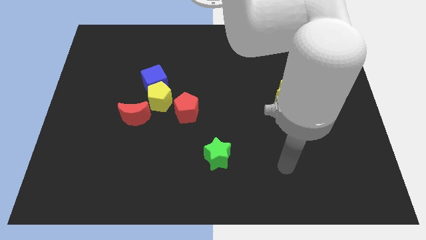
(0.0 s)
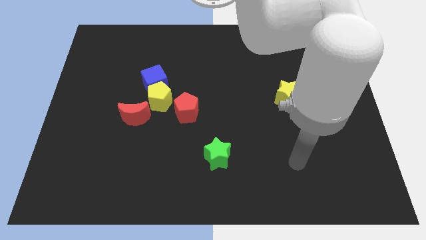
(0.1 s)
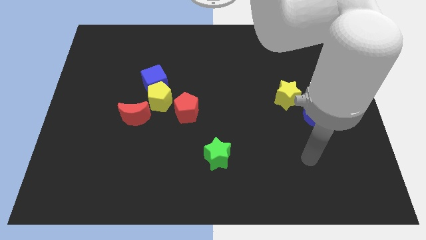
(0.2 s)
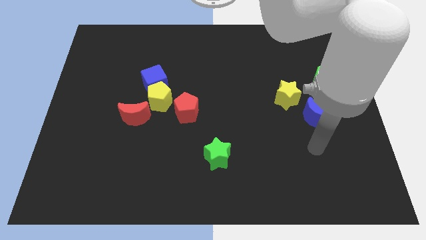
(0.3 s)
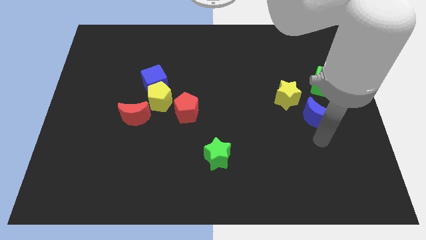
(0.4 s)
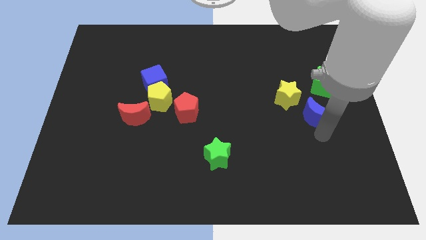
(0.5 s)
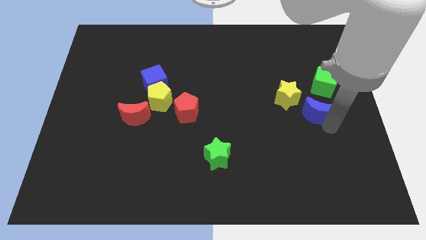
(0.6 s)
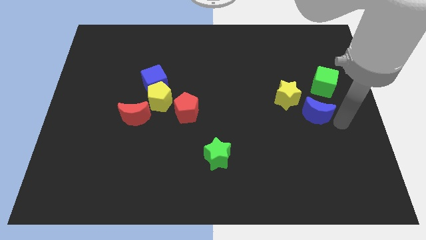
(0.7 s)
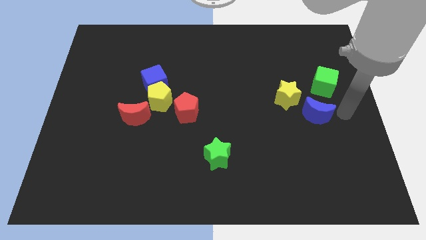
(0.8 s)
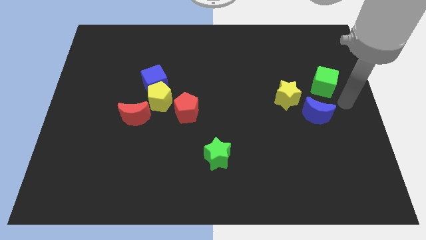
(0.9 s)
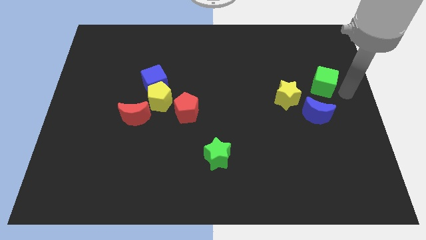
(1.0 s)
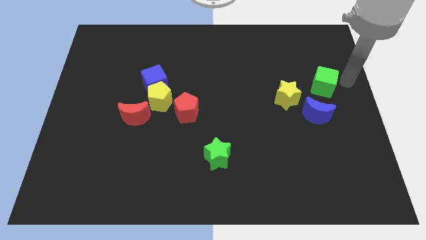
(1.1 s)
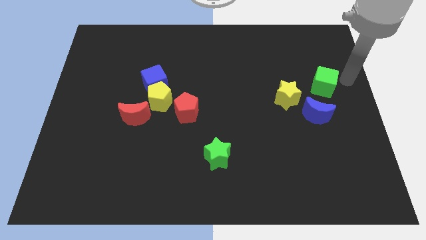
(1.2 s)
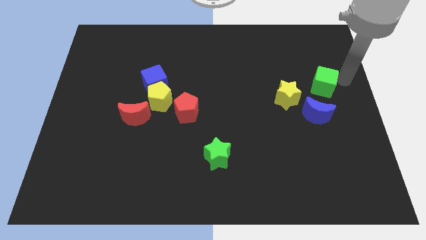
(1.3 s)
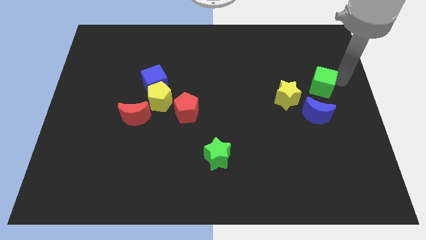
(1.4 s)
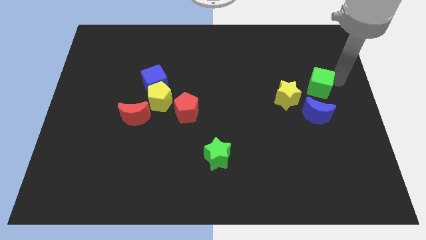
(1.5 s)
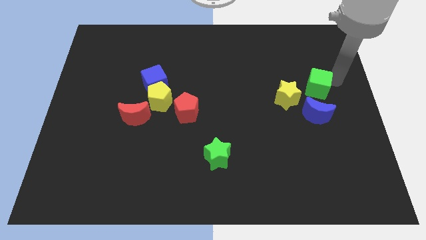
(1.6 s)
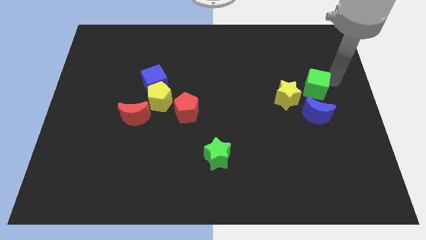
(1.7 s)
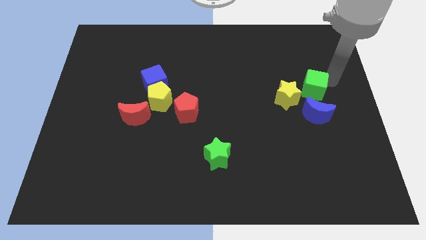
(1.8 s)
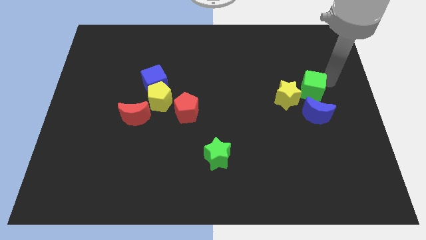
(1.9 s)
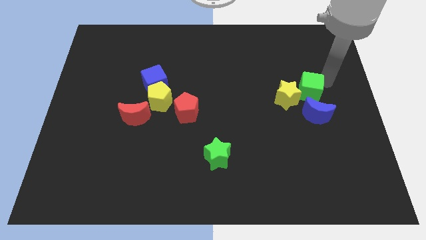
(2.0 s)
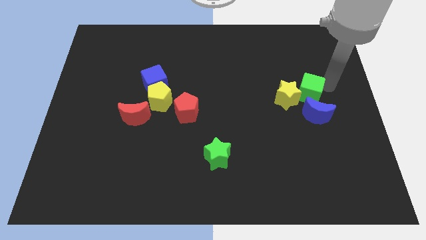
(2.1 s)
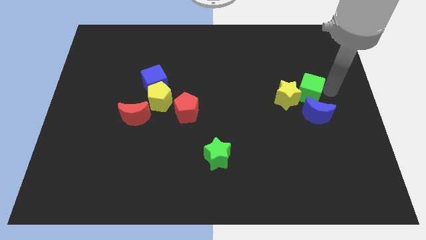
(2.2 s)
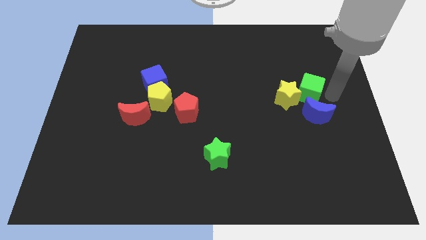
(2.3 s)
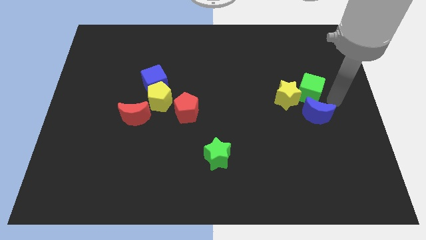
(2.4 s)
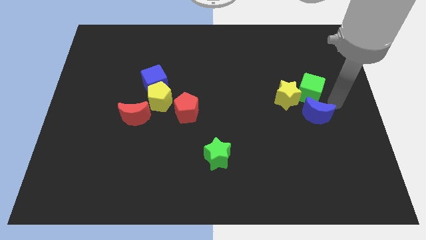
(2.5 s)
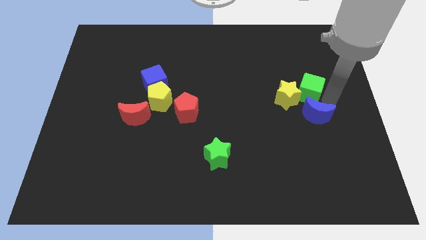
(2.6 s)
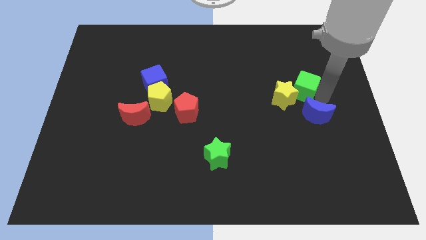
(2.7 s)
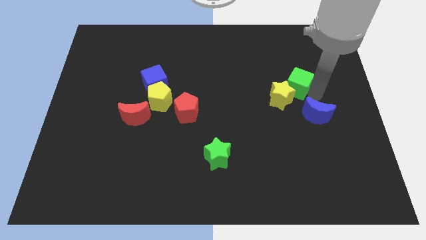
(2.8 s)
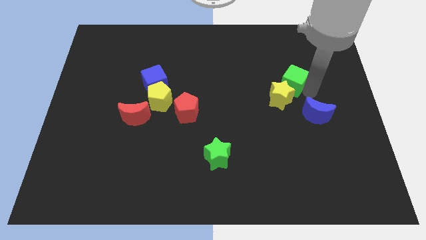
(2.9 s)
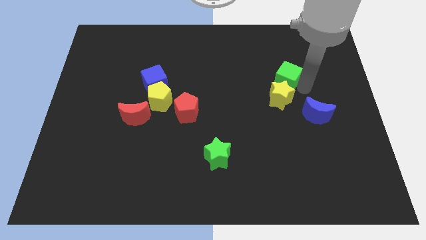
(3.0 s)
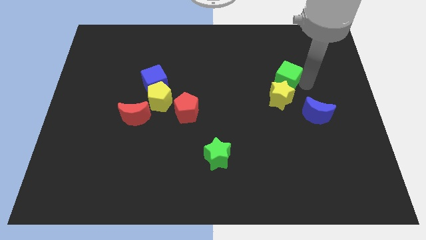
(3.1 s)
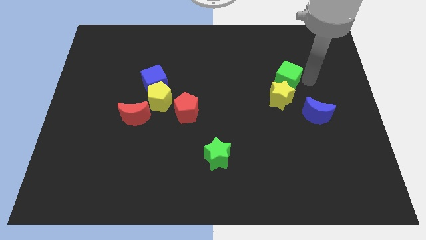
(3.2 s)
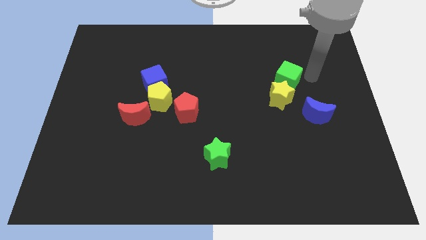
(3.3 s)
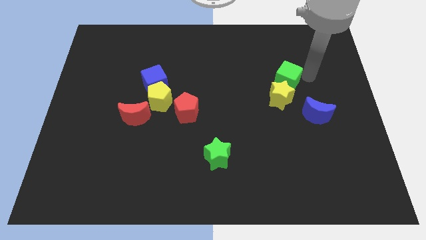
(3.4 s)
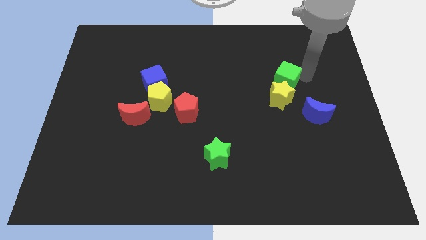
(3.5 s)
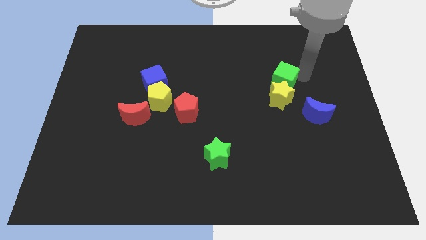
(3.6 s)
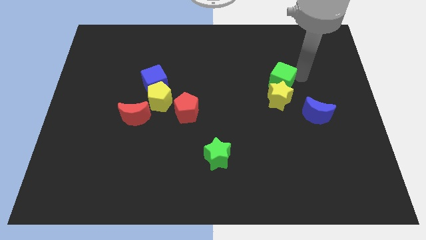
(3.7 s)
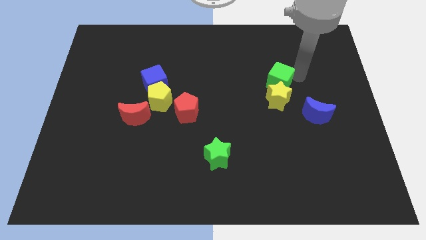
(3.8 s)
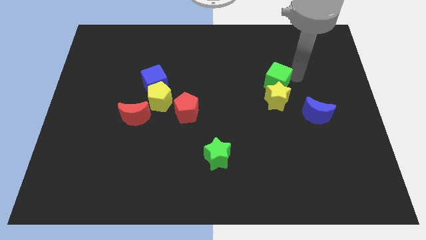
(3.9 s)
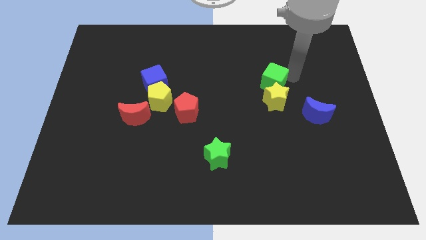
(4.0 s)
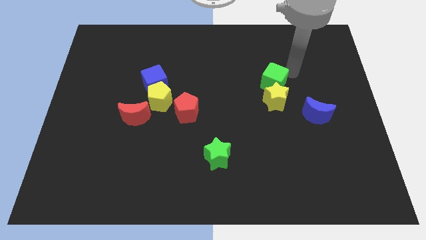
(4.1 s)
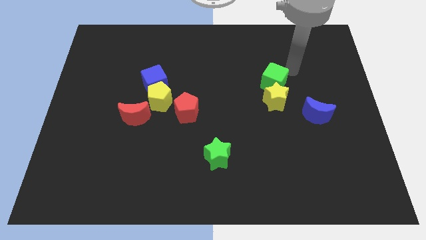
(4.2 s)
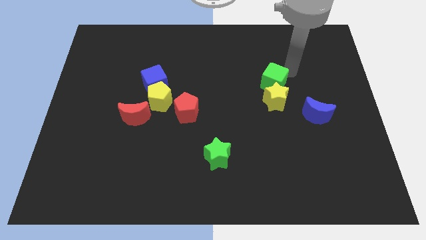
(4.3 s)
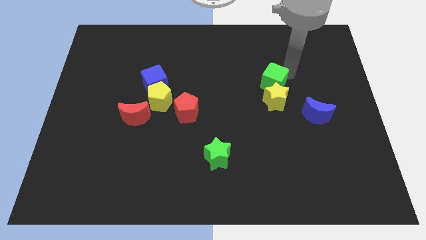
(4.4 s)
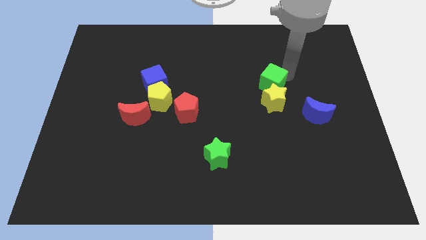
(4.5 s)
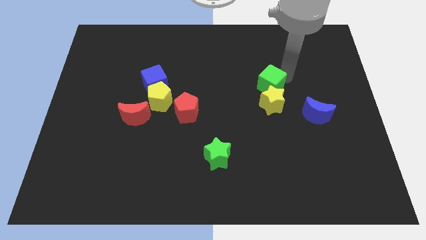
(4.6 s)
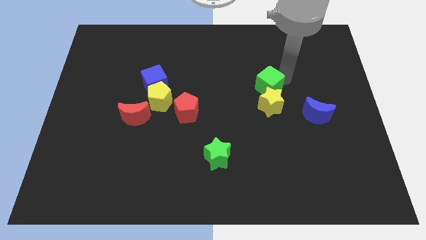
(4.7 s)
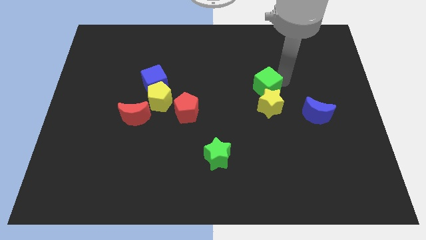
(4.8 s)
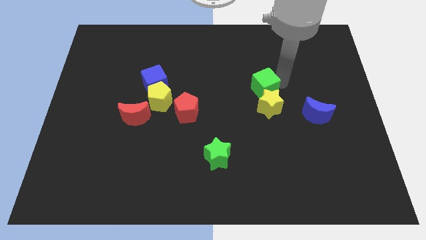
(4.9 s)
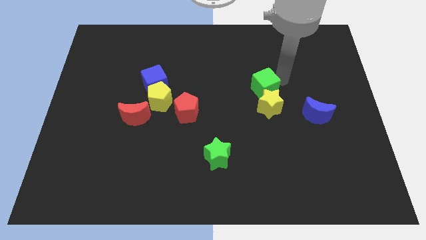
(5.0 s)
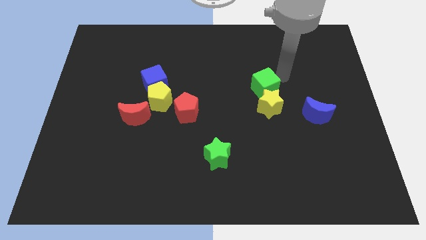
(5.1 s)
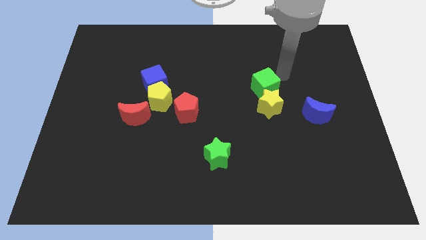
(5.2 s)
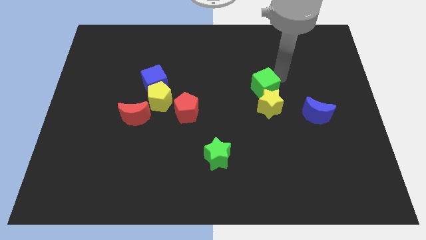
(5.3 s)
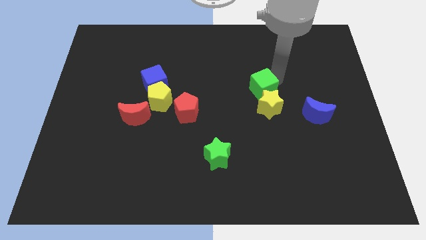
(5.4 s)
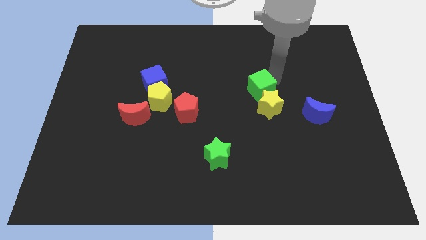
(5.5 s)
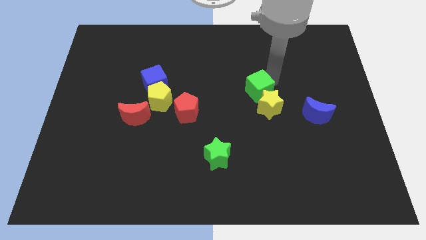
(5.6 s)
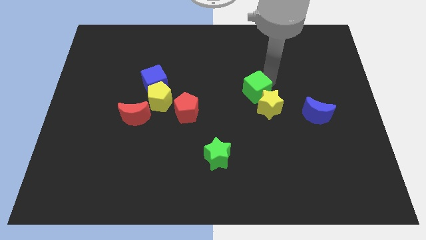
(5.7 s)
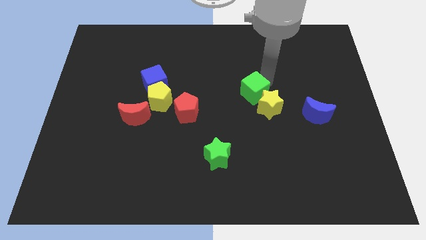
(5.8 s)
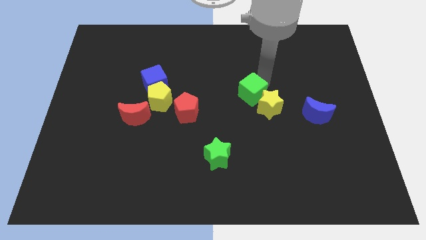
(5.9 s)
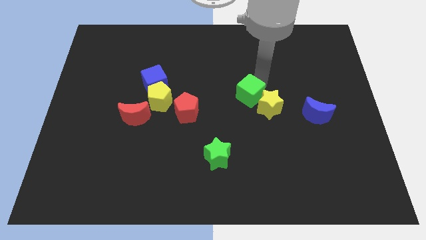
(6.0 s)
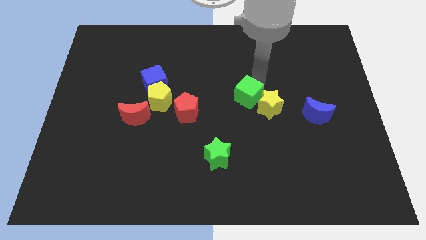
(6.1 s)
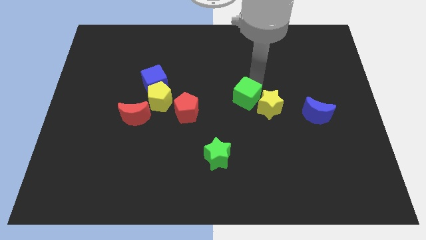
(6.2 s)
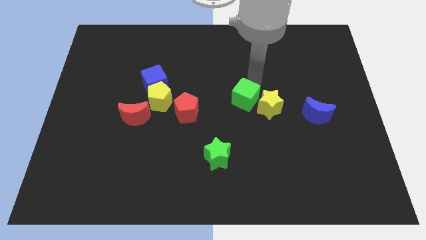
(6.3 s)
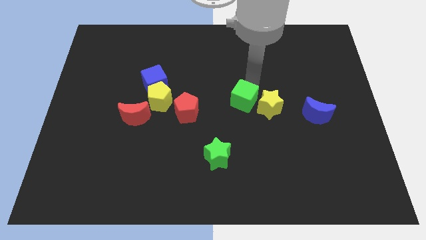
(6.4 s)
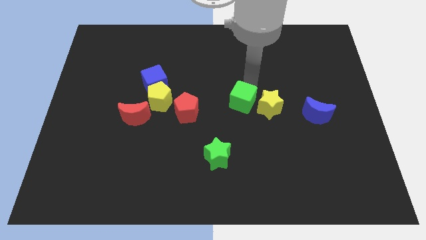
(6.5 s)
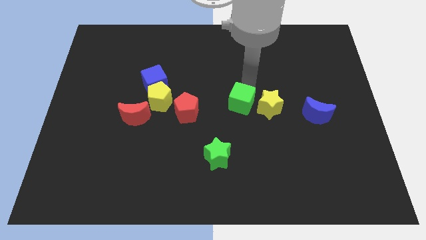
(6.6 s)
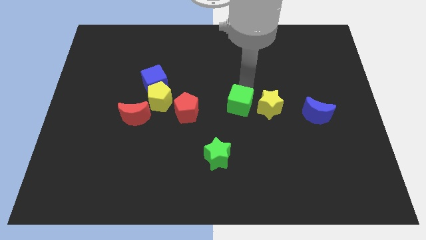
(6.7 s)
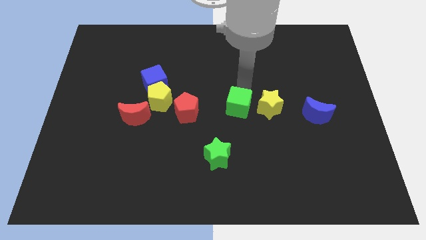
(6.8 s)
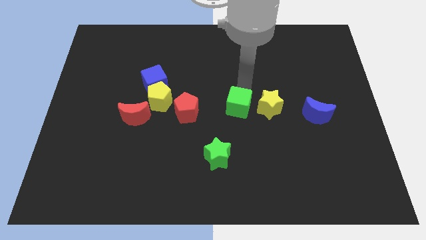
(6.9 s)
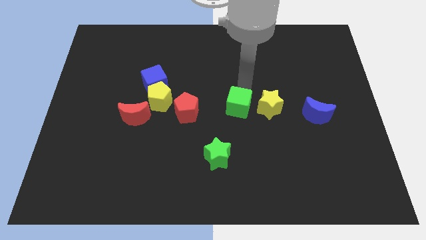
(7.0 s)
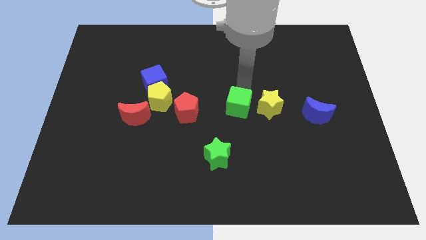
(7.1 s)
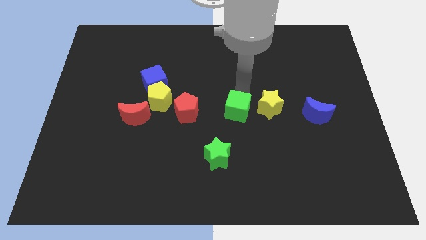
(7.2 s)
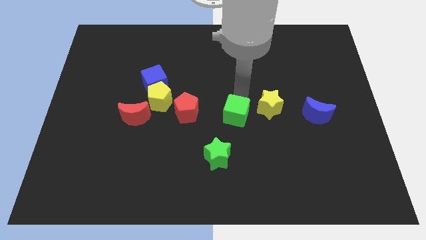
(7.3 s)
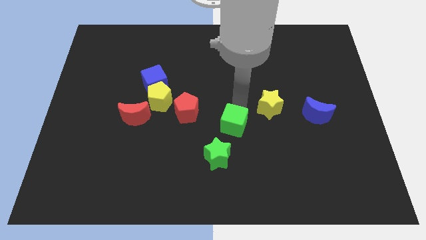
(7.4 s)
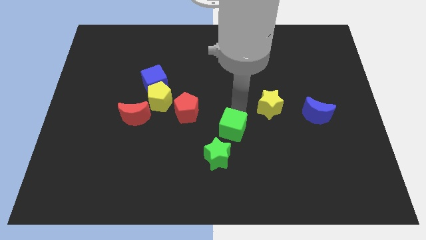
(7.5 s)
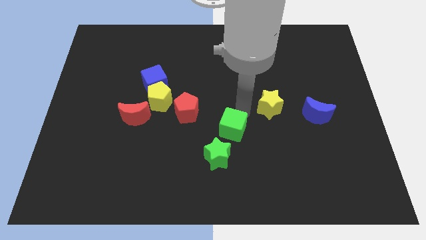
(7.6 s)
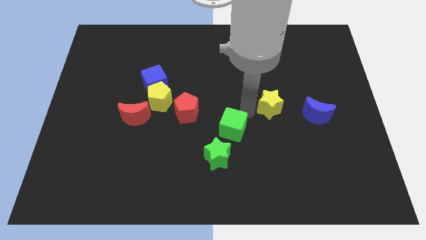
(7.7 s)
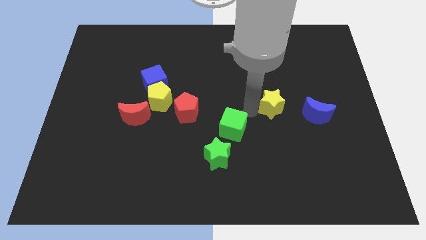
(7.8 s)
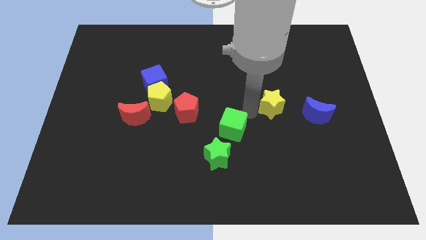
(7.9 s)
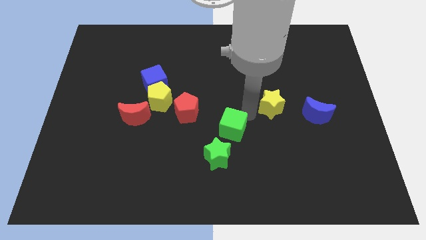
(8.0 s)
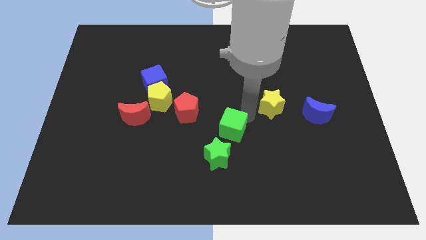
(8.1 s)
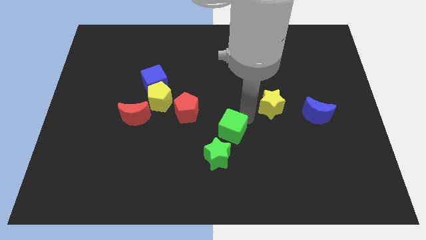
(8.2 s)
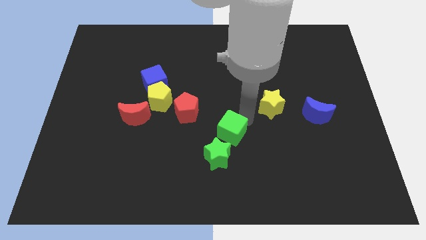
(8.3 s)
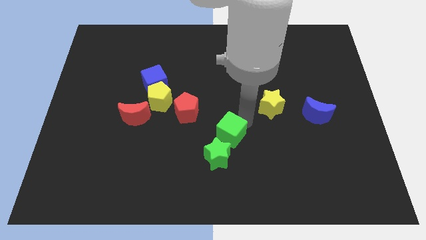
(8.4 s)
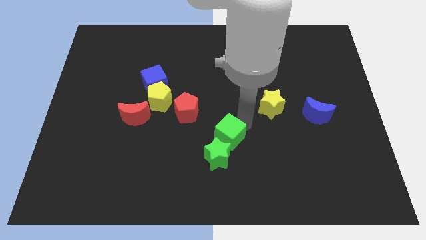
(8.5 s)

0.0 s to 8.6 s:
put the green cube close to the green star
